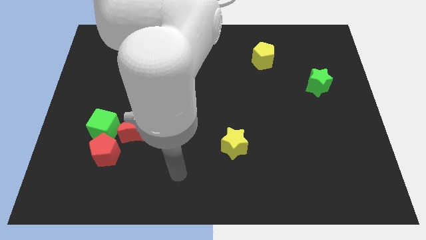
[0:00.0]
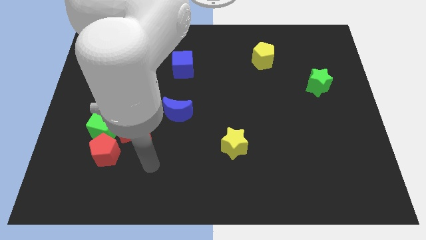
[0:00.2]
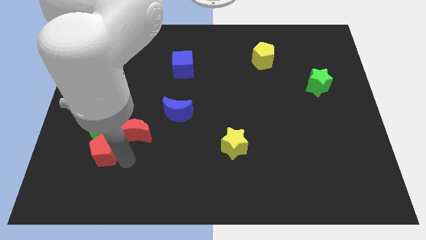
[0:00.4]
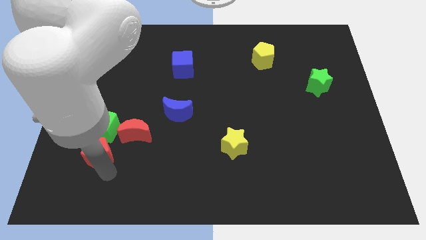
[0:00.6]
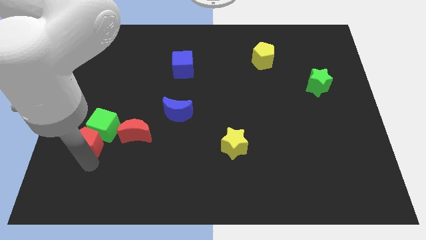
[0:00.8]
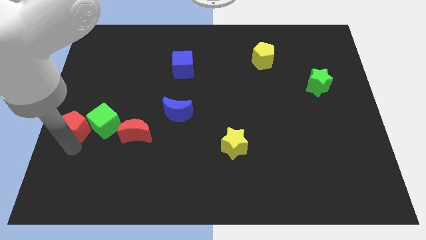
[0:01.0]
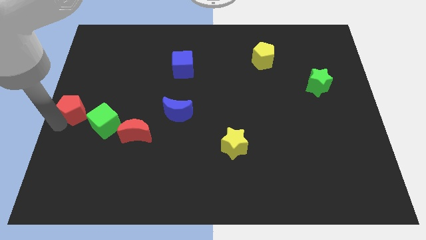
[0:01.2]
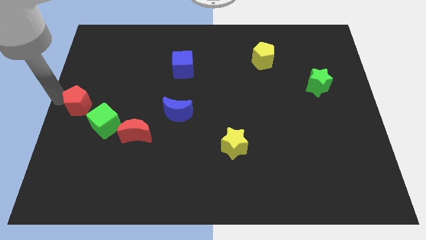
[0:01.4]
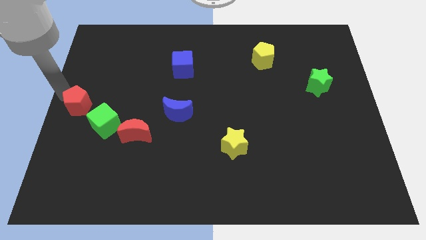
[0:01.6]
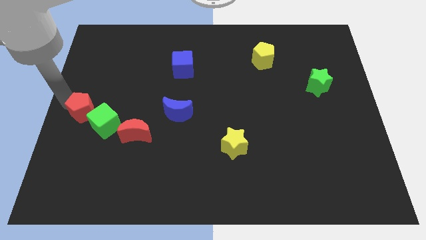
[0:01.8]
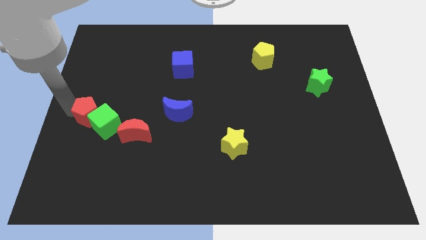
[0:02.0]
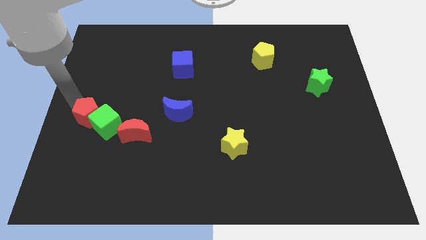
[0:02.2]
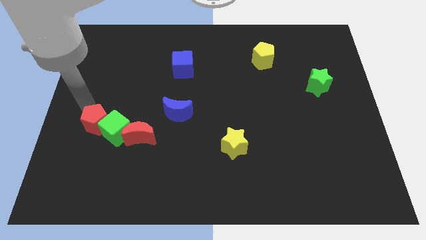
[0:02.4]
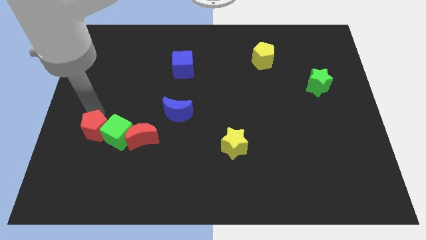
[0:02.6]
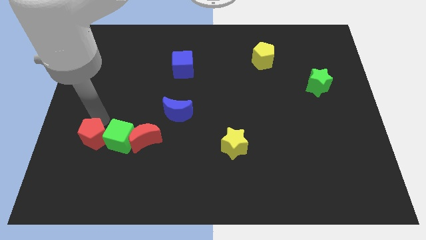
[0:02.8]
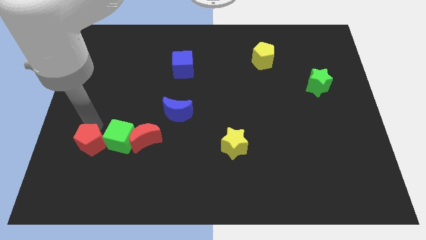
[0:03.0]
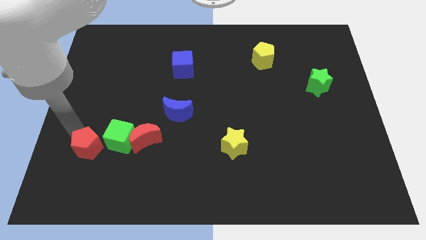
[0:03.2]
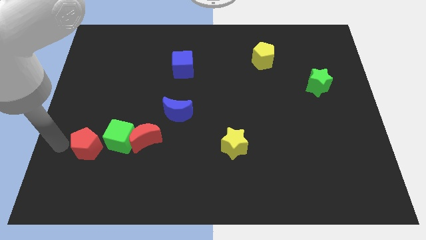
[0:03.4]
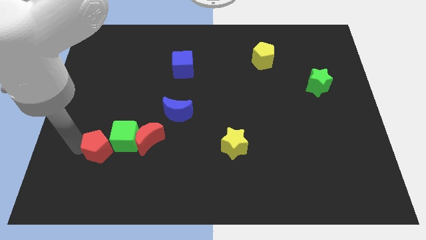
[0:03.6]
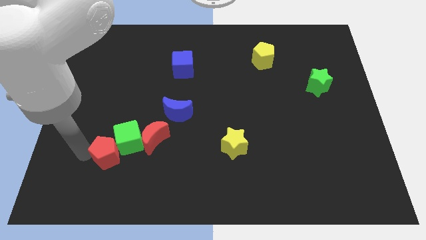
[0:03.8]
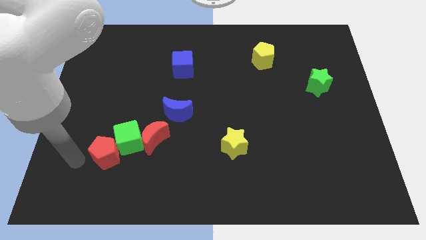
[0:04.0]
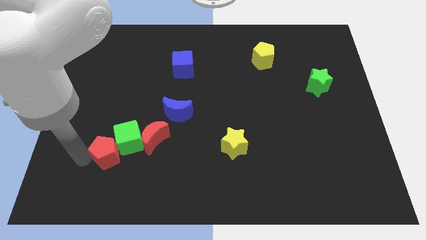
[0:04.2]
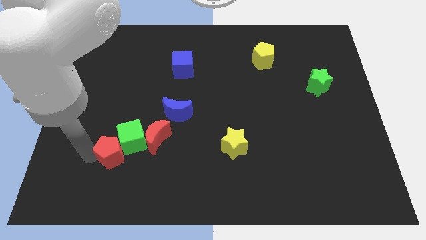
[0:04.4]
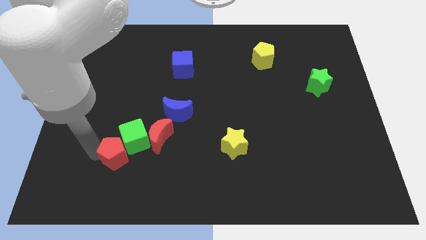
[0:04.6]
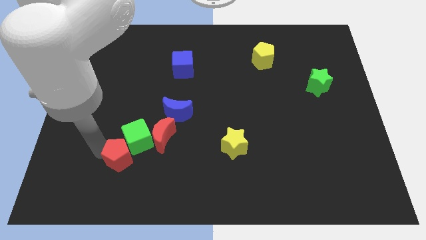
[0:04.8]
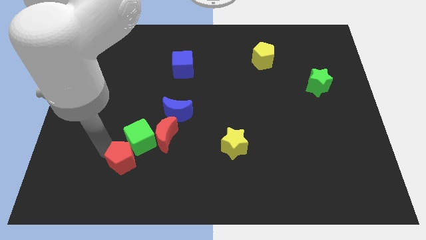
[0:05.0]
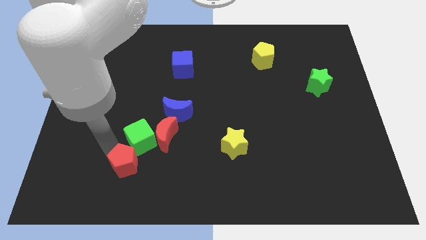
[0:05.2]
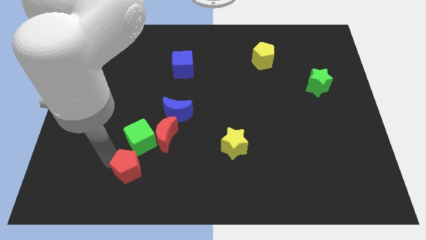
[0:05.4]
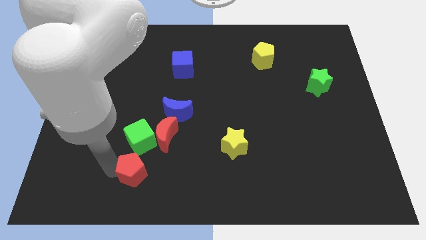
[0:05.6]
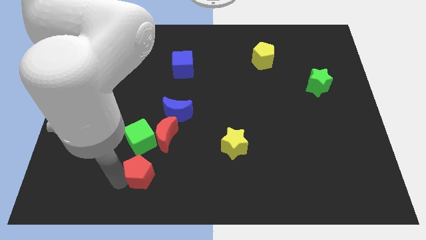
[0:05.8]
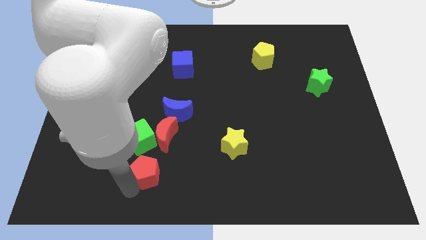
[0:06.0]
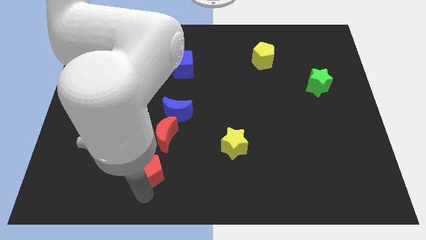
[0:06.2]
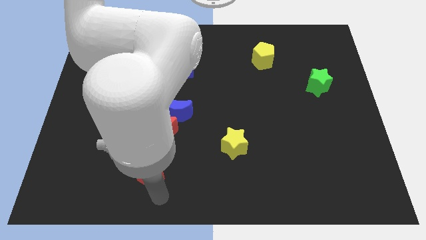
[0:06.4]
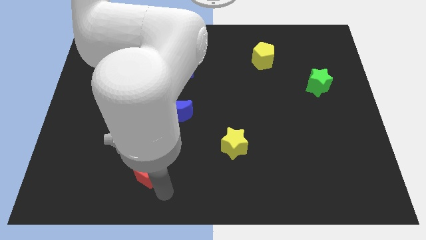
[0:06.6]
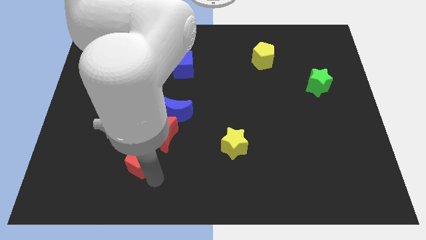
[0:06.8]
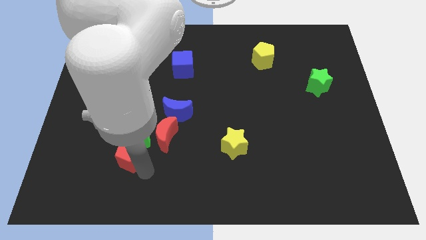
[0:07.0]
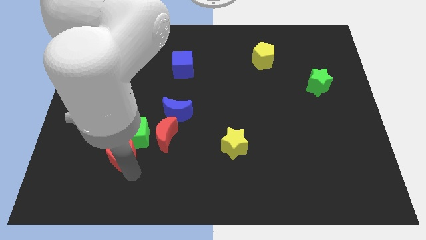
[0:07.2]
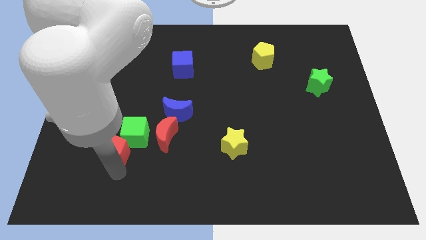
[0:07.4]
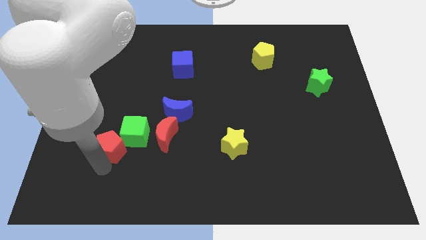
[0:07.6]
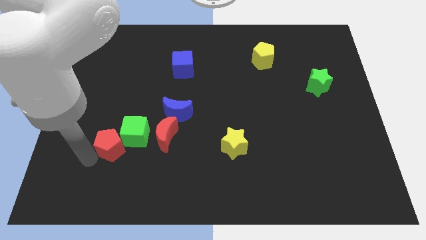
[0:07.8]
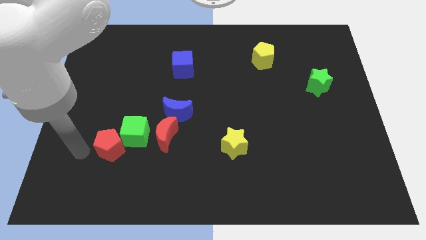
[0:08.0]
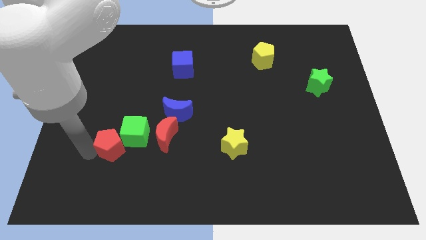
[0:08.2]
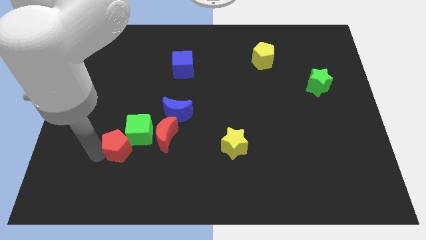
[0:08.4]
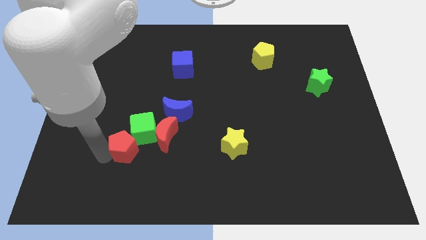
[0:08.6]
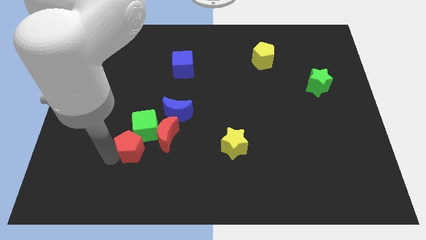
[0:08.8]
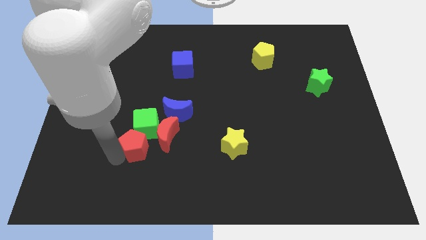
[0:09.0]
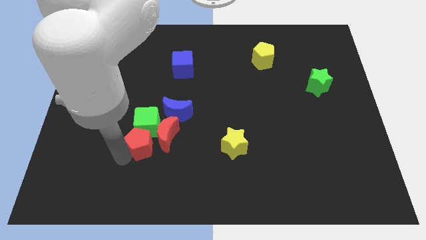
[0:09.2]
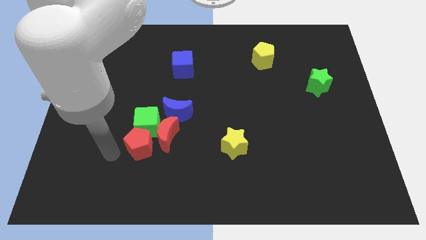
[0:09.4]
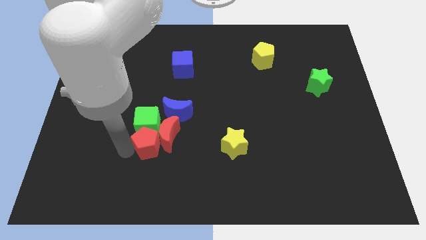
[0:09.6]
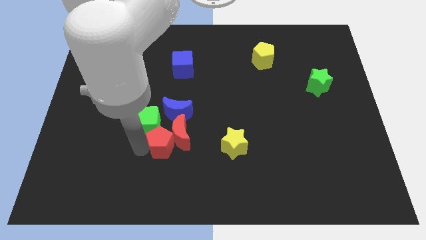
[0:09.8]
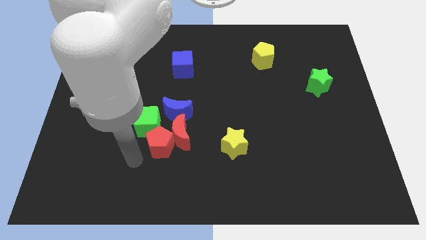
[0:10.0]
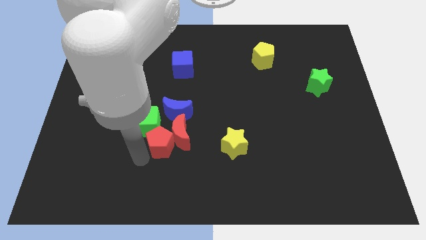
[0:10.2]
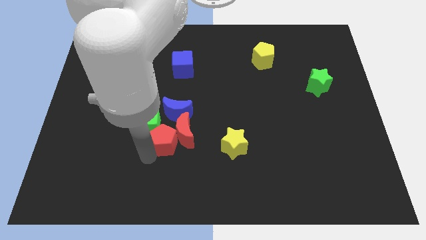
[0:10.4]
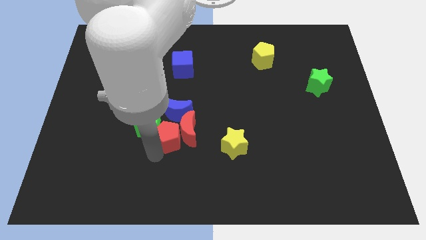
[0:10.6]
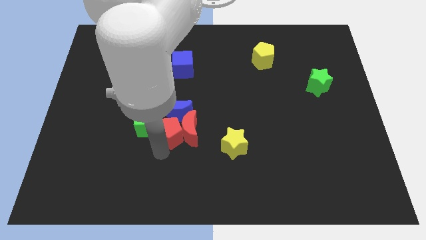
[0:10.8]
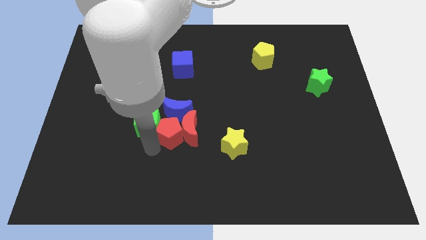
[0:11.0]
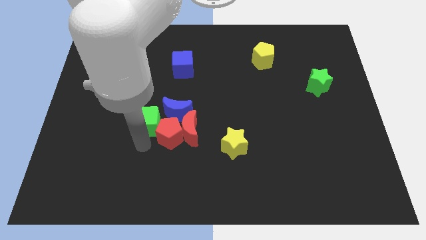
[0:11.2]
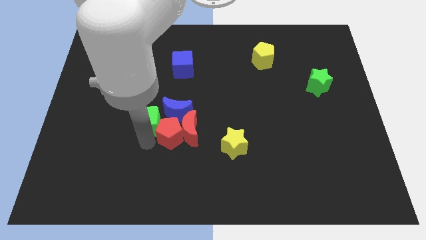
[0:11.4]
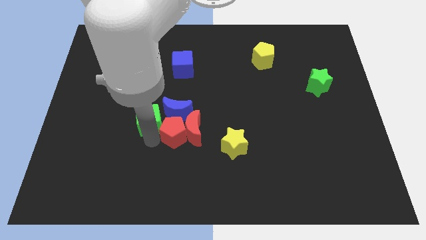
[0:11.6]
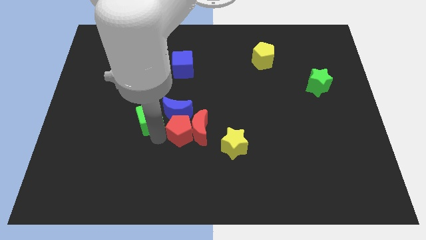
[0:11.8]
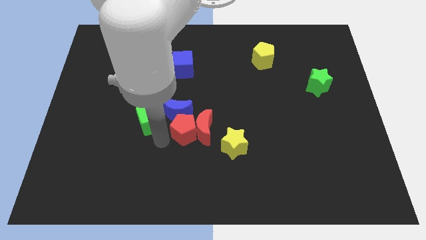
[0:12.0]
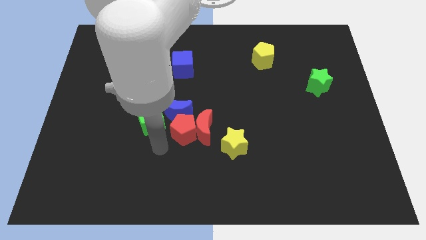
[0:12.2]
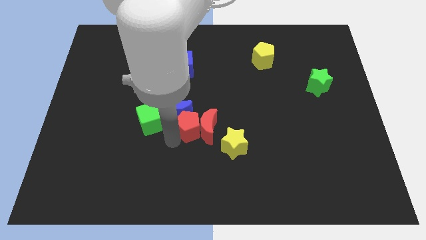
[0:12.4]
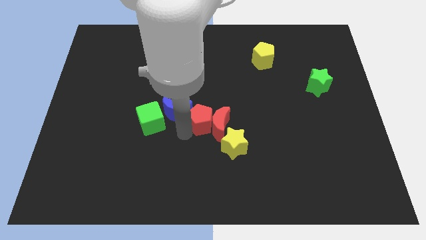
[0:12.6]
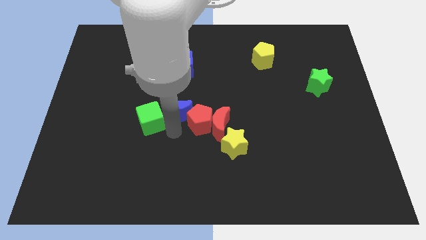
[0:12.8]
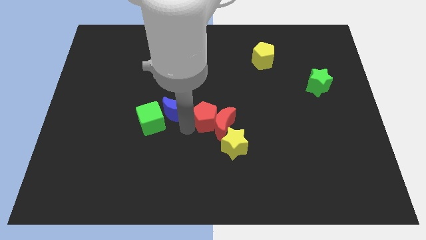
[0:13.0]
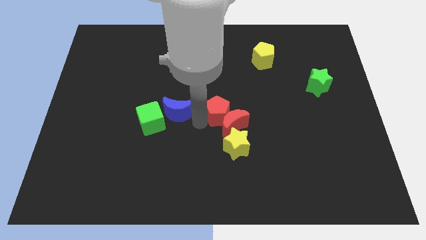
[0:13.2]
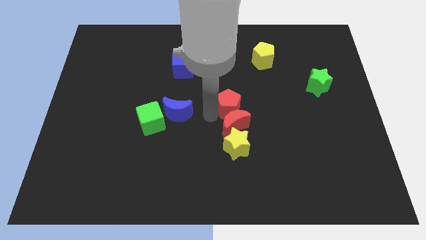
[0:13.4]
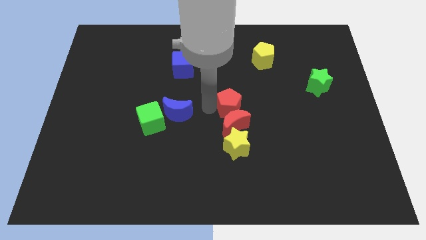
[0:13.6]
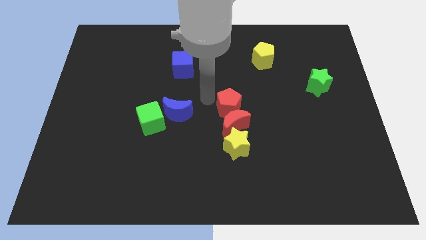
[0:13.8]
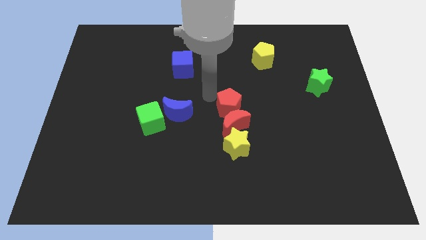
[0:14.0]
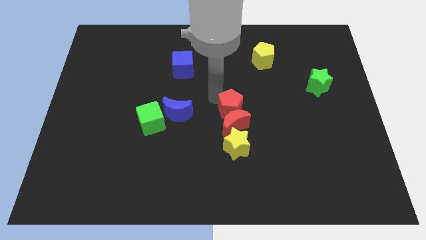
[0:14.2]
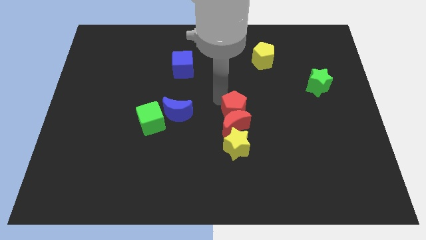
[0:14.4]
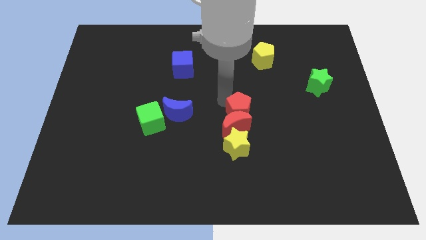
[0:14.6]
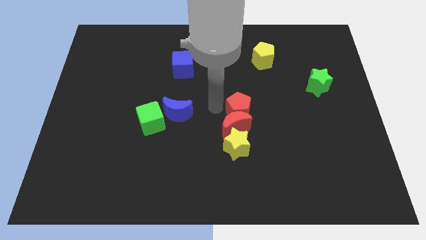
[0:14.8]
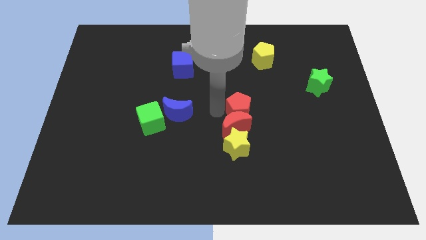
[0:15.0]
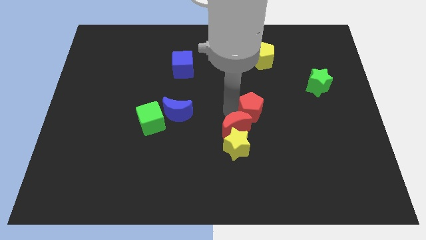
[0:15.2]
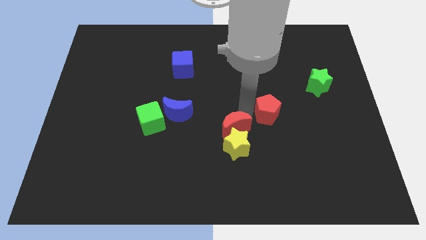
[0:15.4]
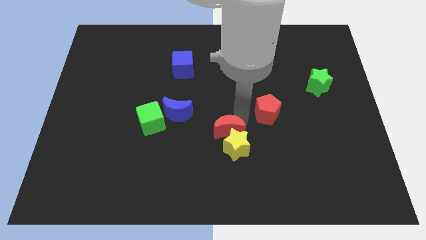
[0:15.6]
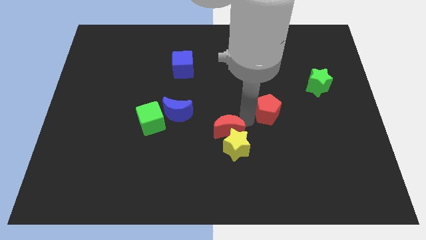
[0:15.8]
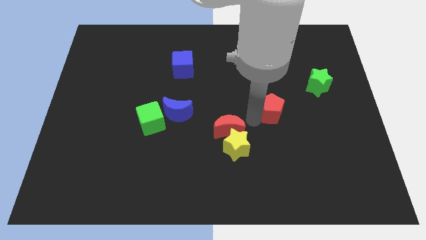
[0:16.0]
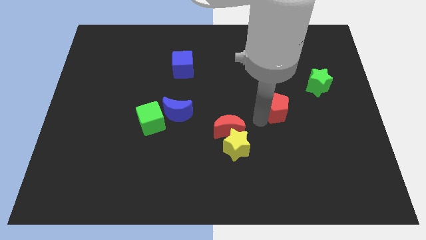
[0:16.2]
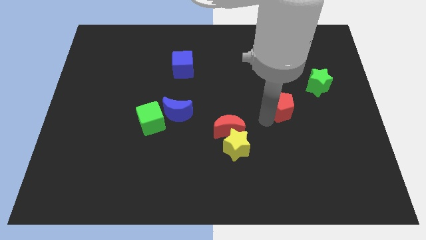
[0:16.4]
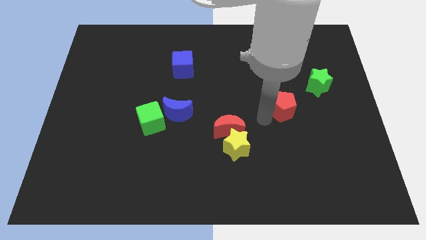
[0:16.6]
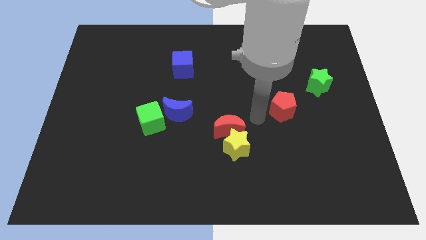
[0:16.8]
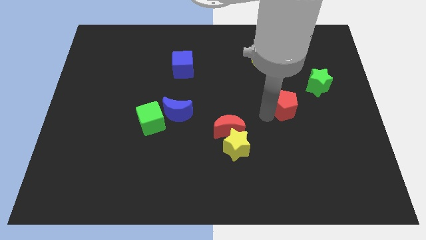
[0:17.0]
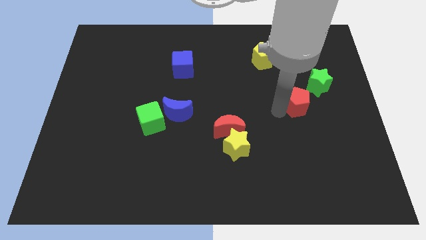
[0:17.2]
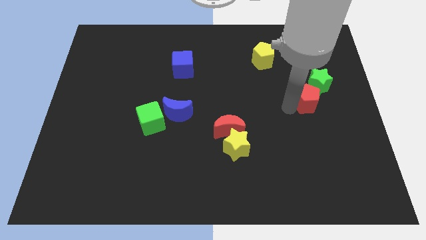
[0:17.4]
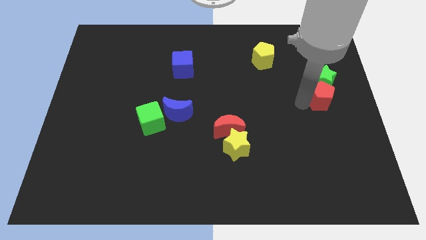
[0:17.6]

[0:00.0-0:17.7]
put the red pentagon to the right side of the board
